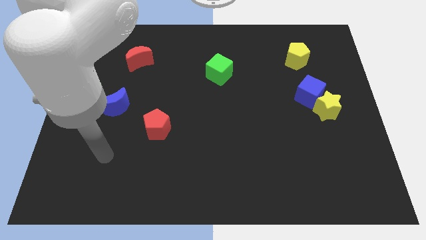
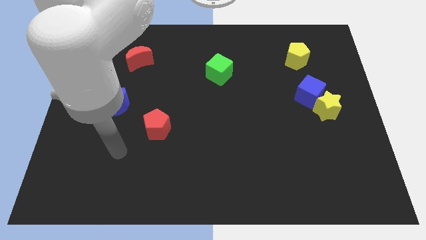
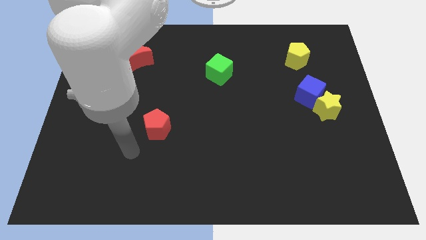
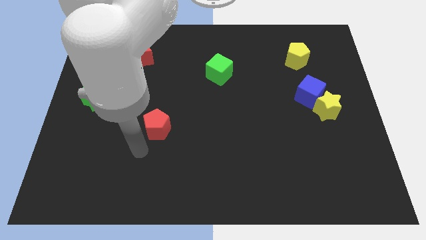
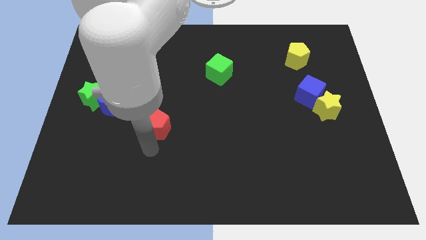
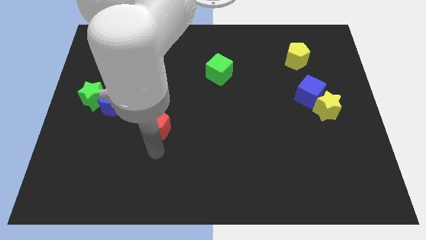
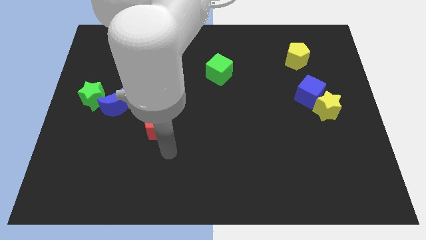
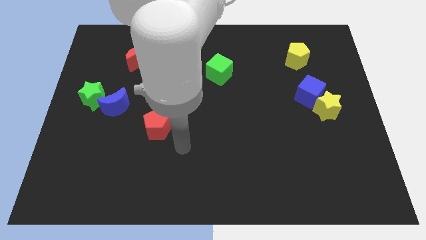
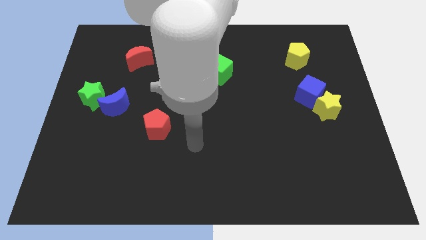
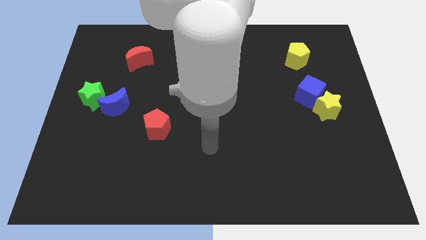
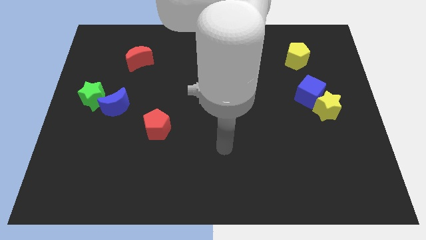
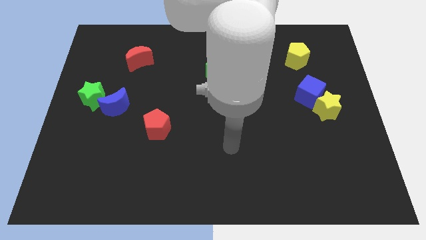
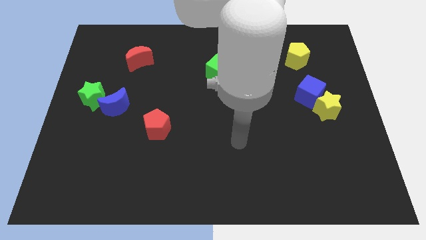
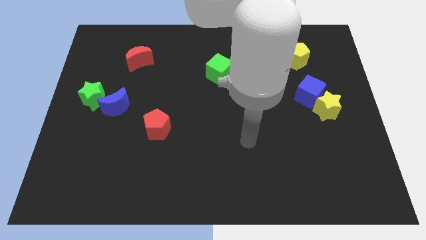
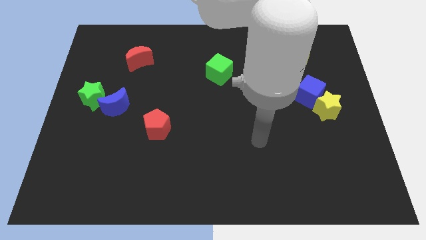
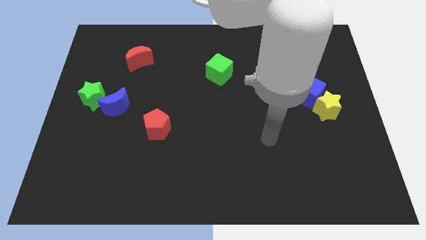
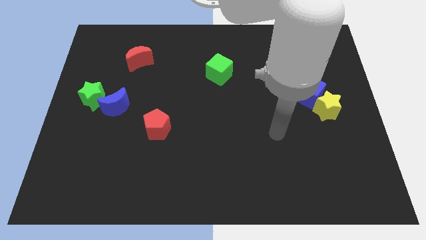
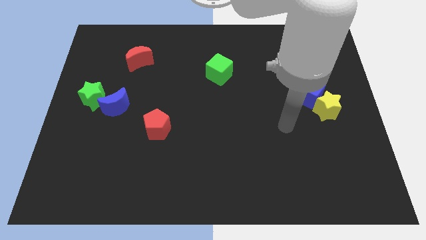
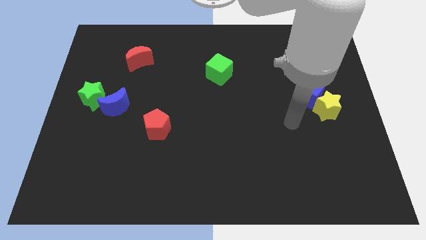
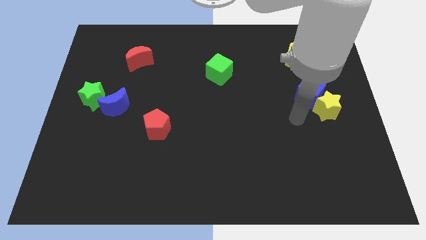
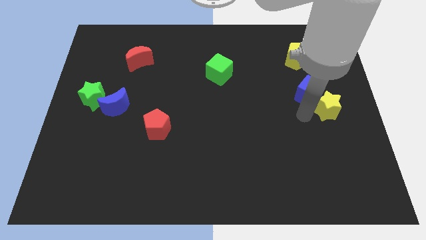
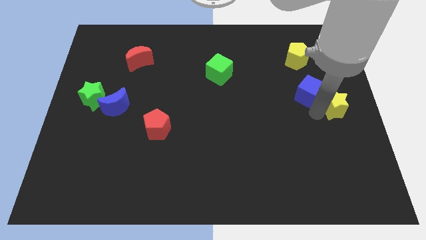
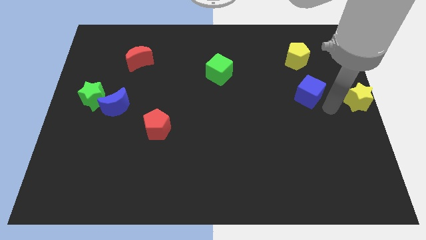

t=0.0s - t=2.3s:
move the blue cube away from the yellow star

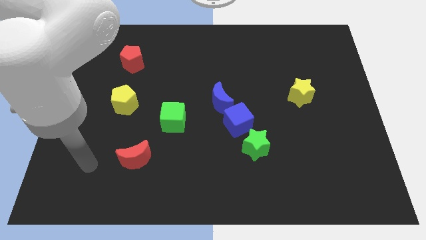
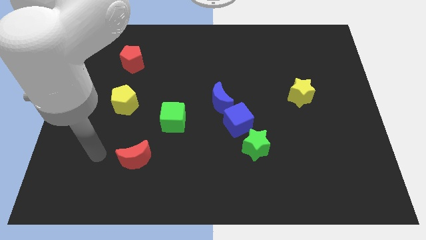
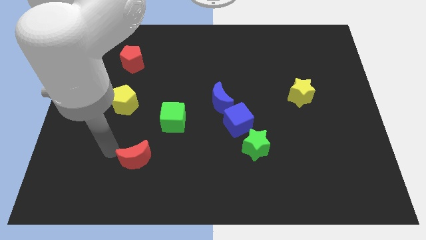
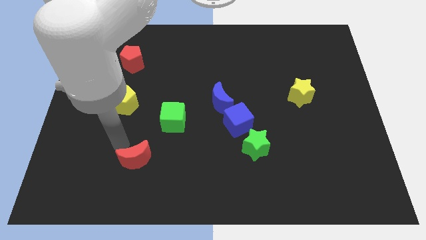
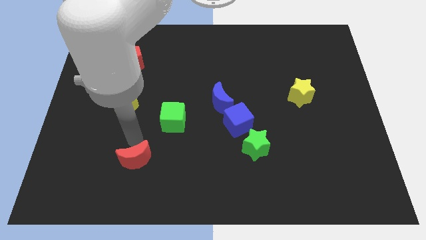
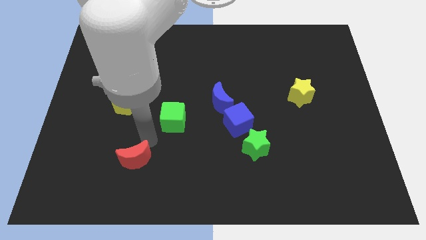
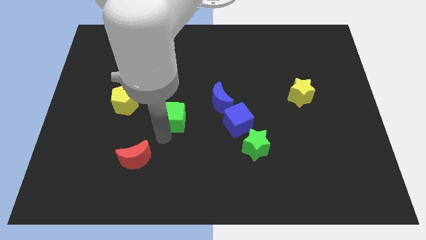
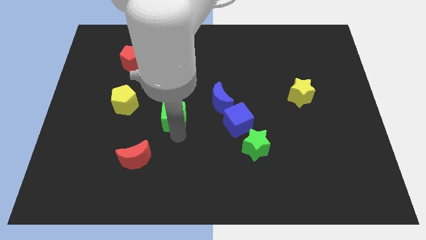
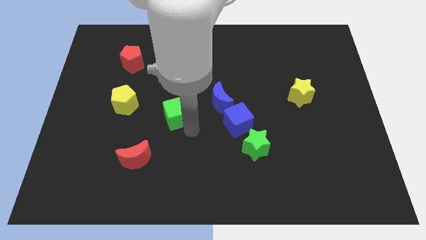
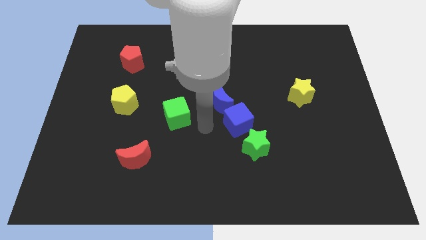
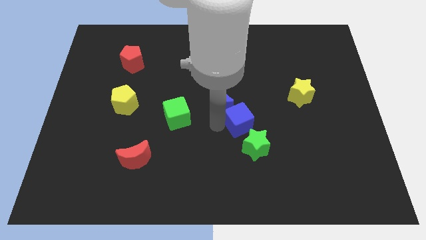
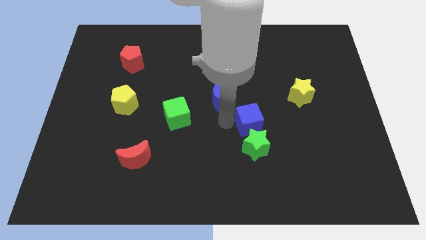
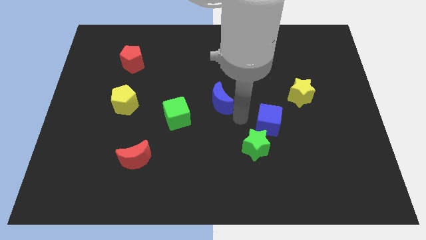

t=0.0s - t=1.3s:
move the blue moon away from the blue cube

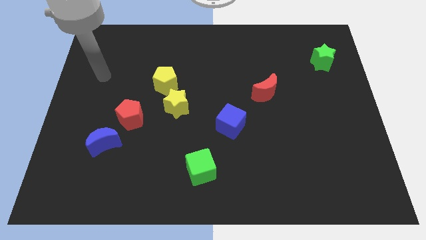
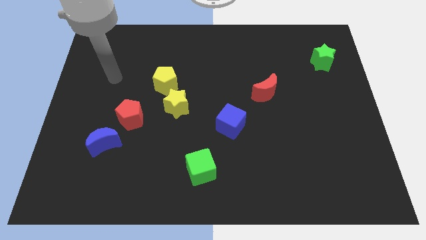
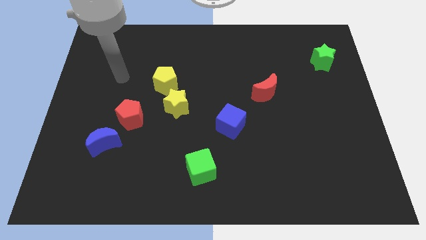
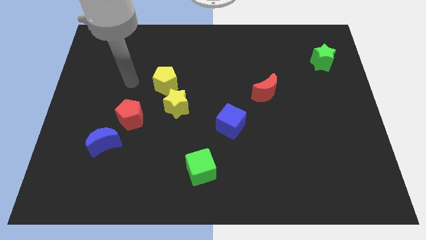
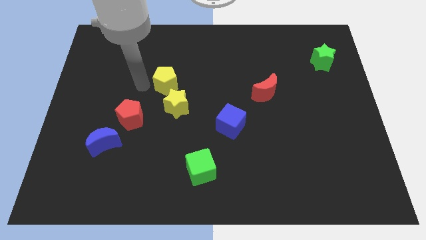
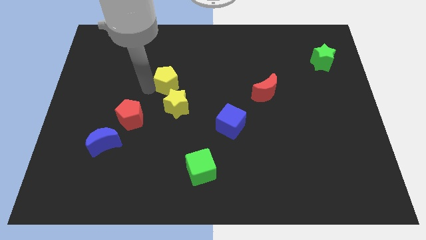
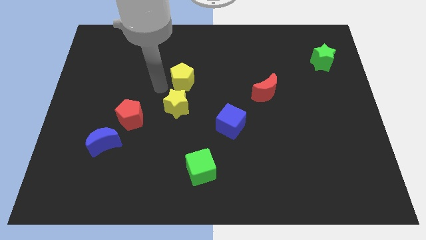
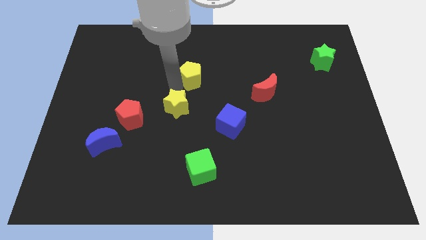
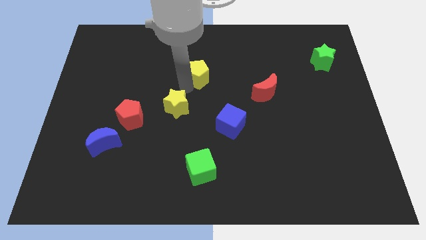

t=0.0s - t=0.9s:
move the yellow star away from the yellow pentagon

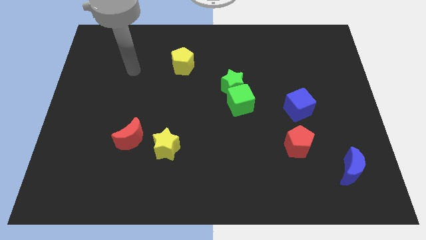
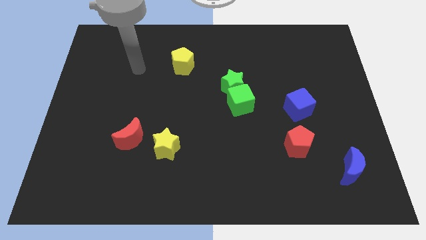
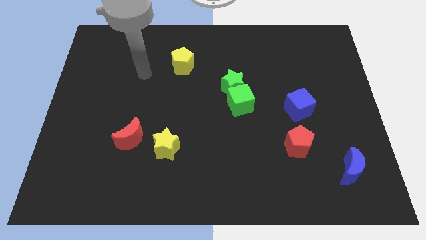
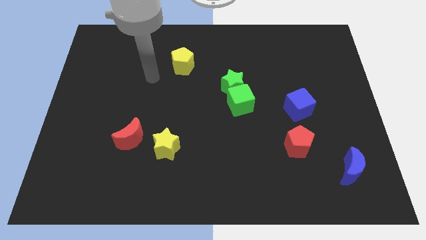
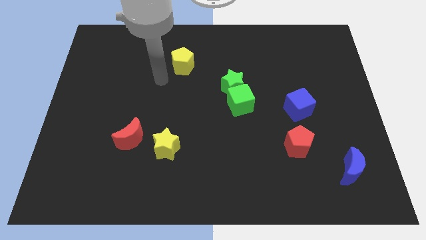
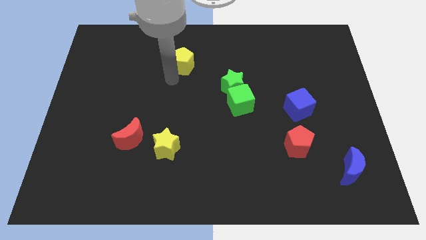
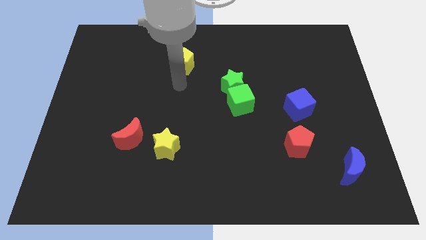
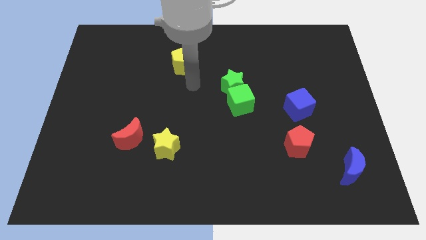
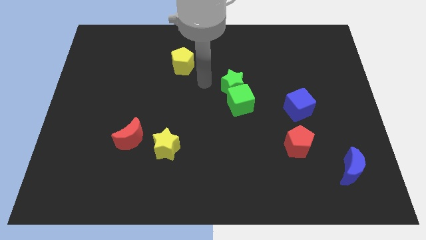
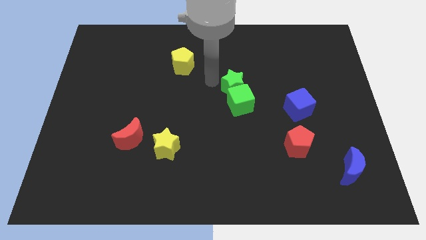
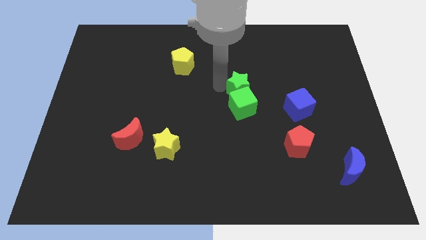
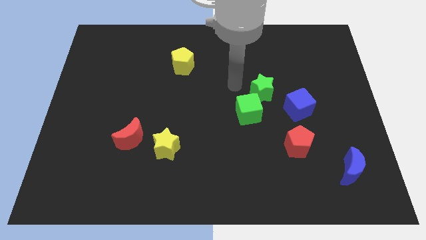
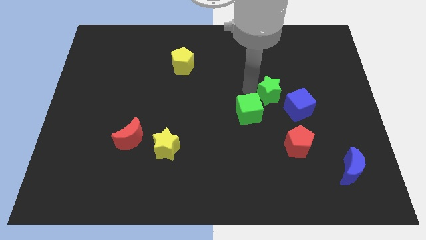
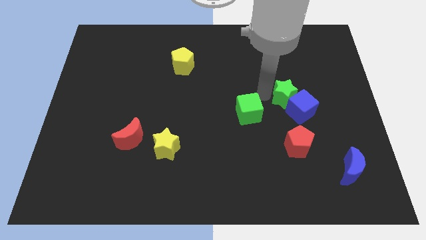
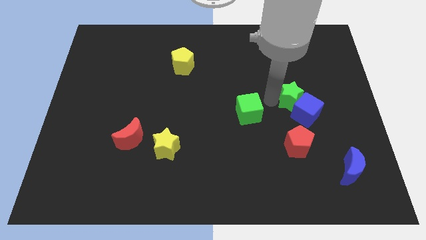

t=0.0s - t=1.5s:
separate the green cube from the green star

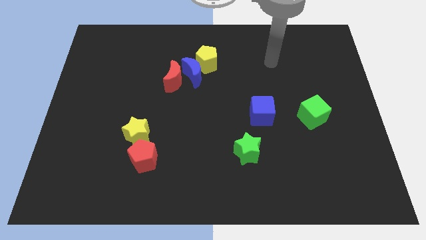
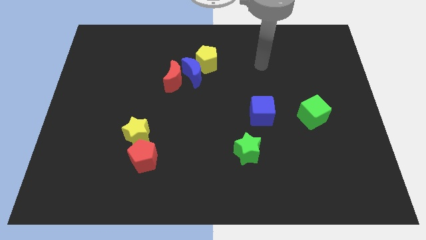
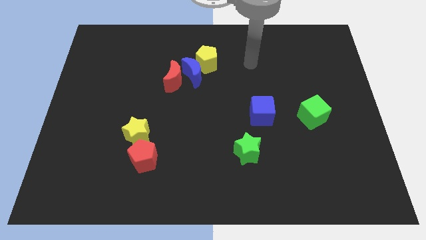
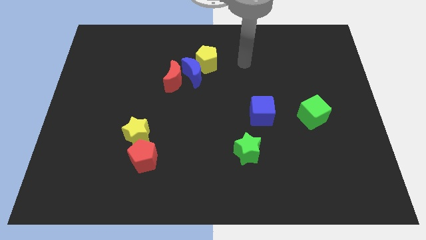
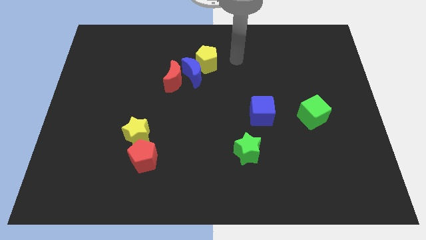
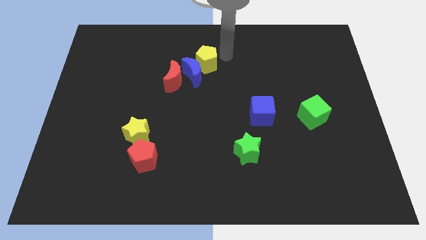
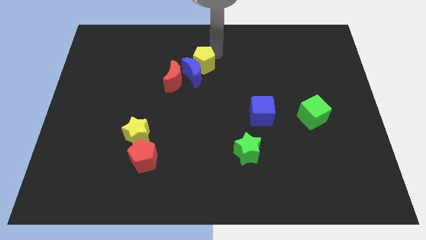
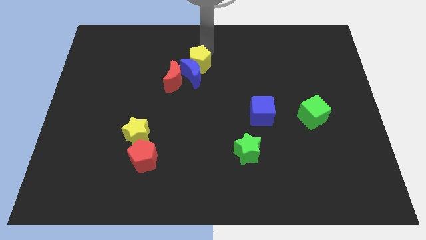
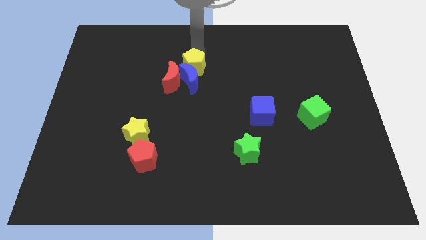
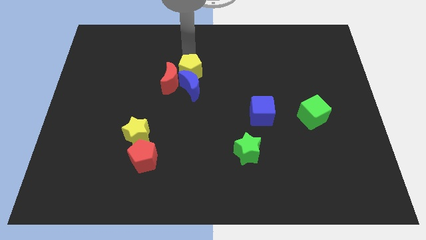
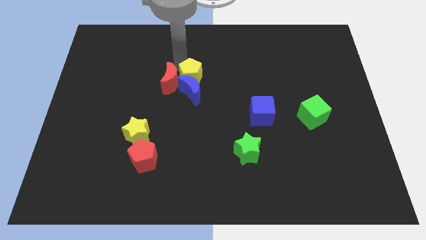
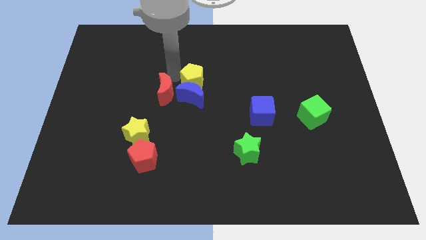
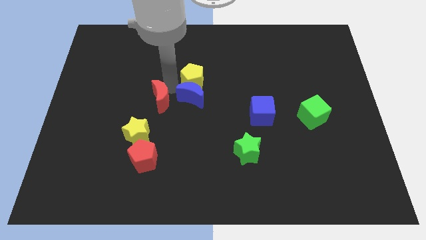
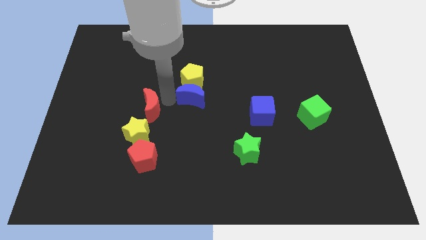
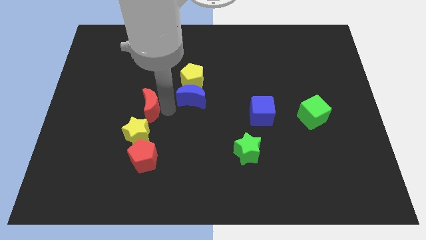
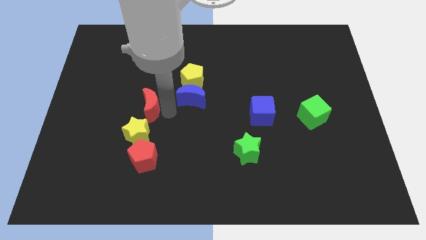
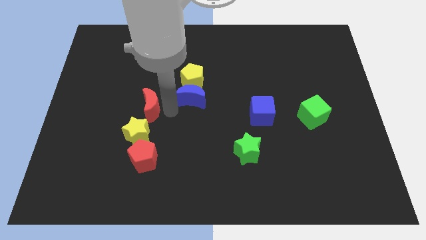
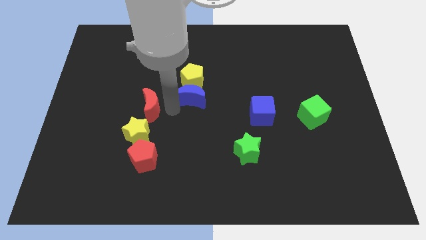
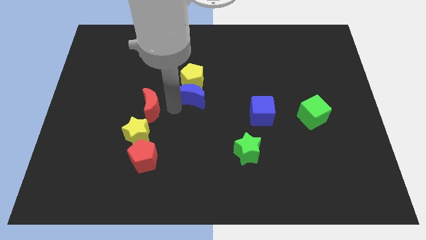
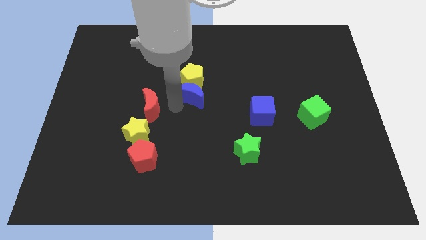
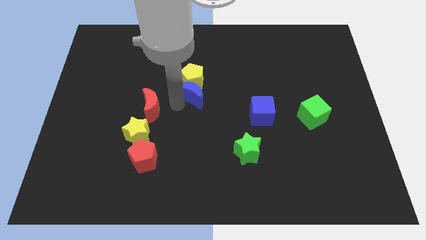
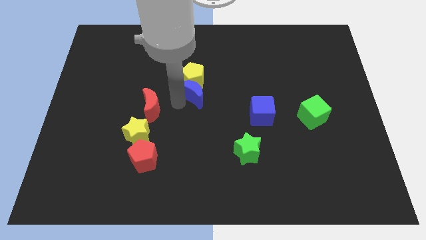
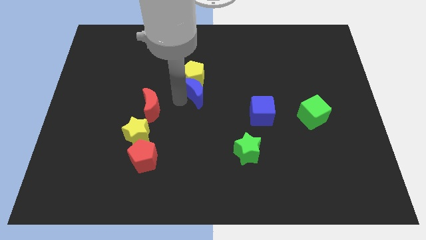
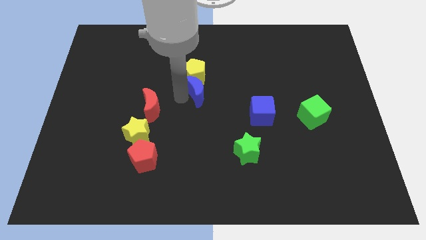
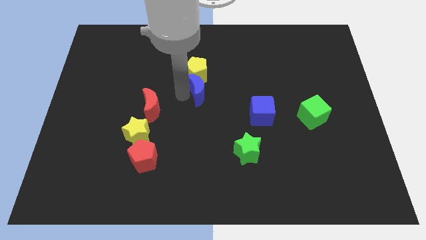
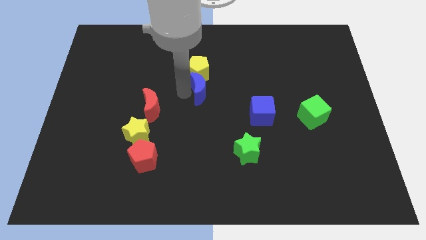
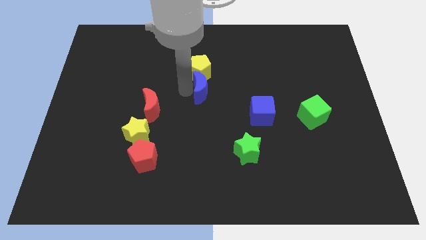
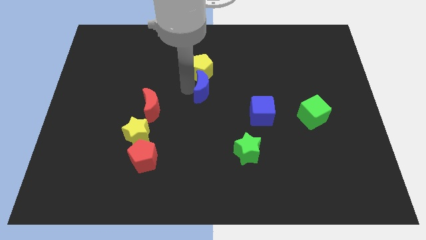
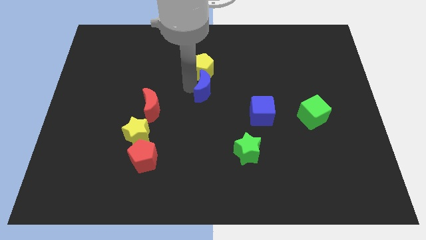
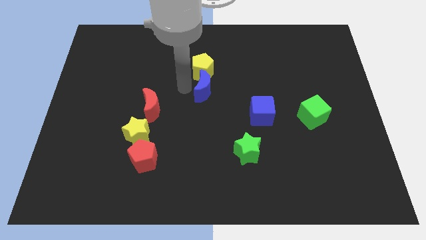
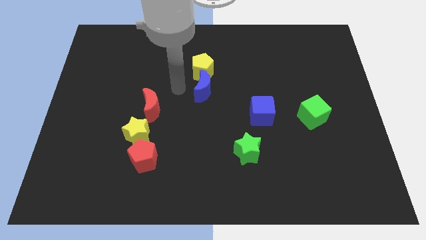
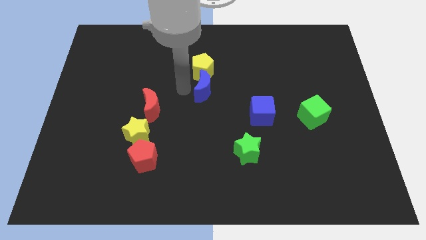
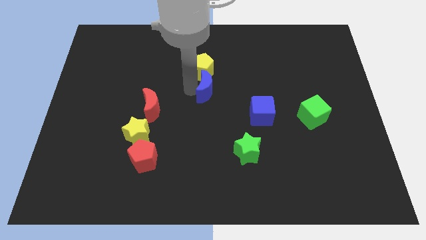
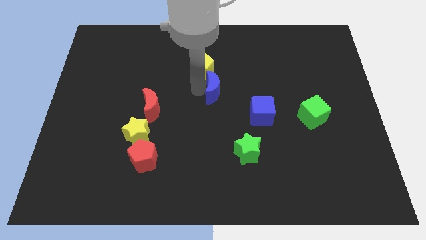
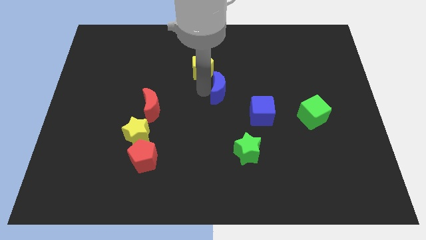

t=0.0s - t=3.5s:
pull the blue moon apart from the red moon and yellow pentagon
